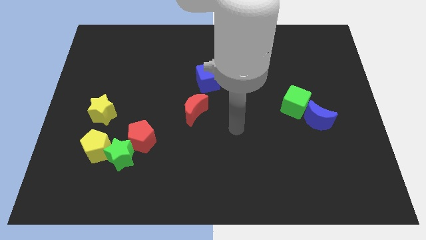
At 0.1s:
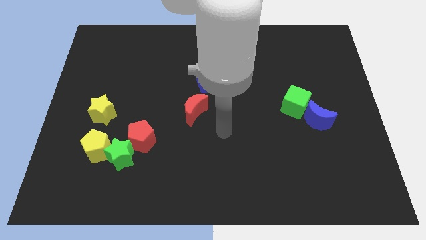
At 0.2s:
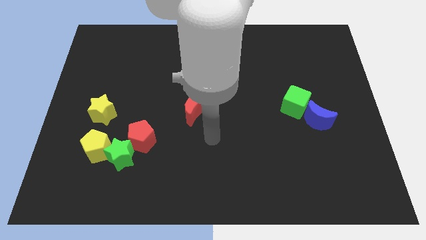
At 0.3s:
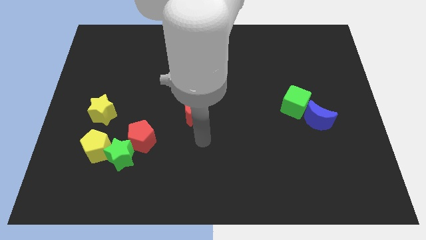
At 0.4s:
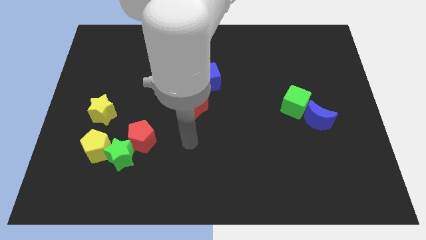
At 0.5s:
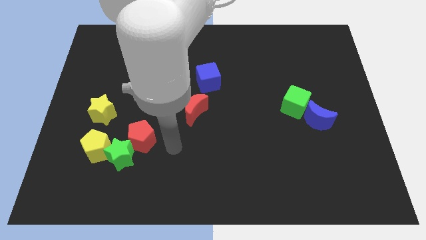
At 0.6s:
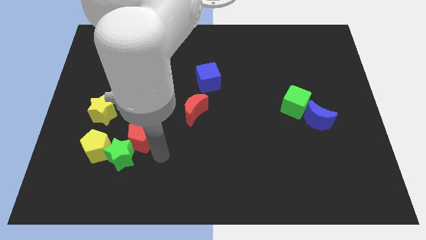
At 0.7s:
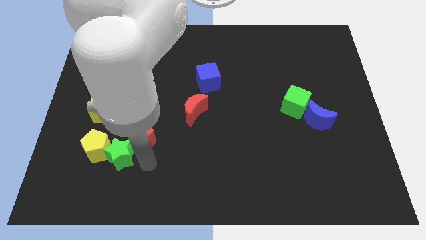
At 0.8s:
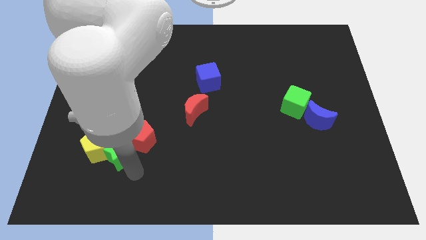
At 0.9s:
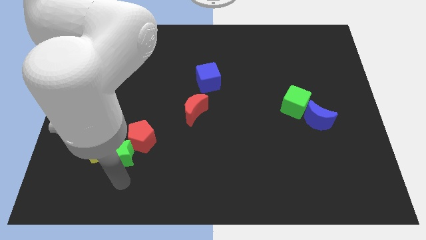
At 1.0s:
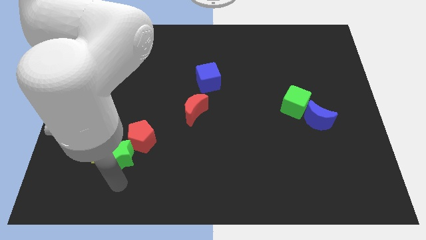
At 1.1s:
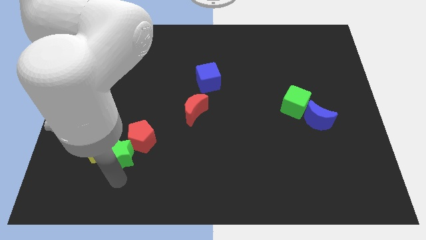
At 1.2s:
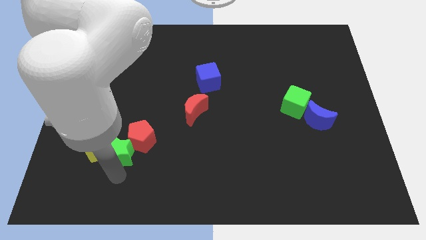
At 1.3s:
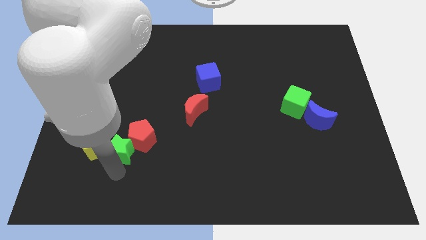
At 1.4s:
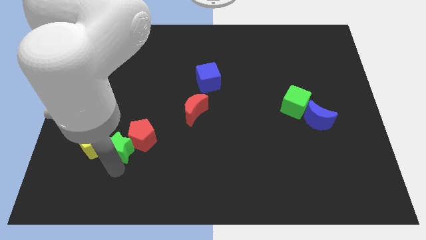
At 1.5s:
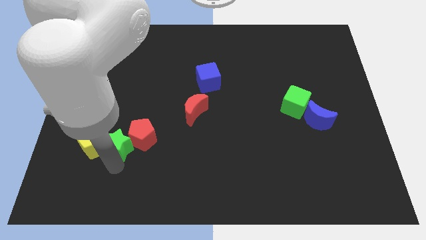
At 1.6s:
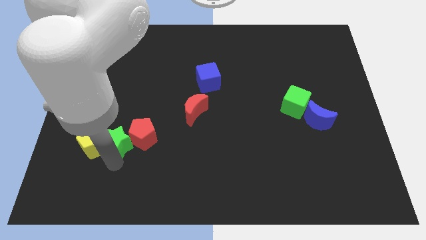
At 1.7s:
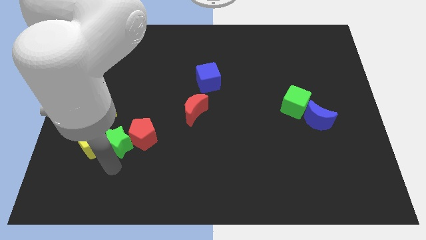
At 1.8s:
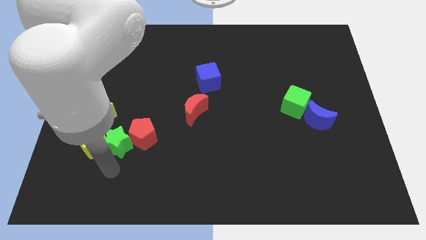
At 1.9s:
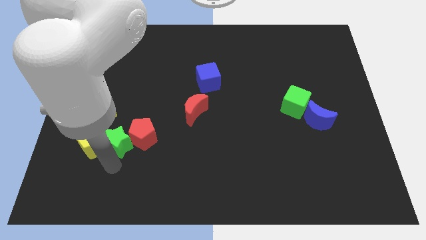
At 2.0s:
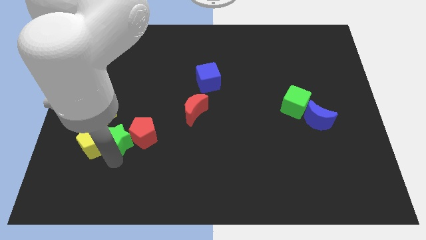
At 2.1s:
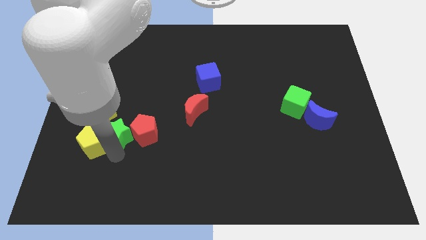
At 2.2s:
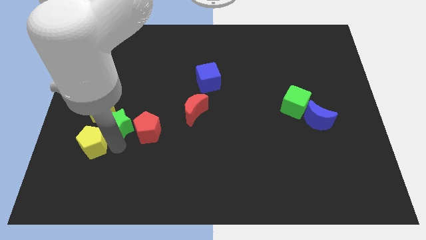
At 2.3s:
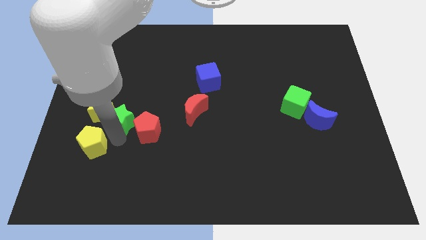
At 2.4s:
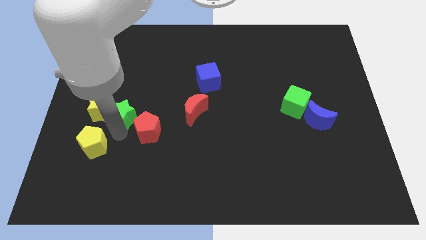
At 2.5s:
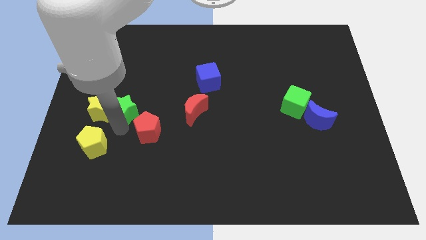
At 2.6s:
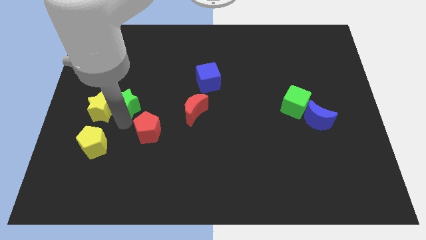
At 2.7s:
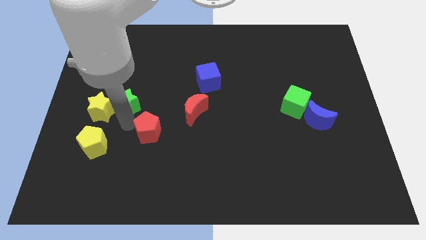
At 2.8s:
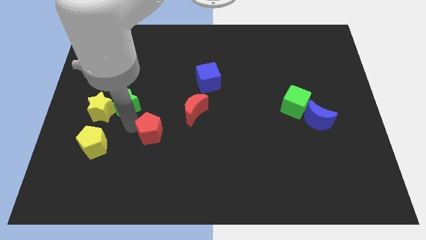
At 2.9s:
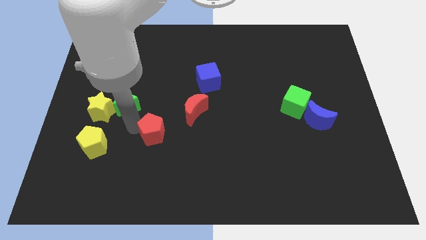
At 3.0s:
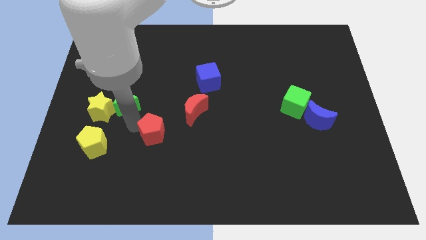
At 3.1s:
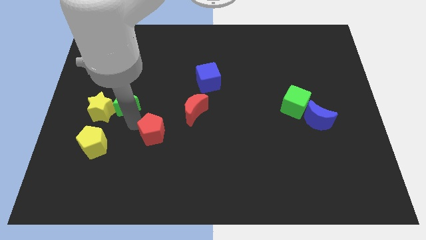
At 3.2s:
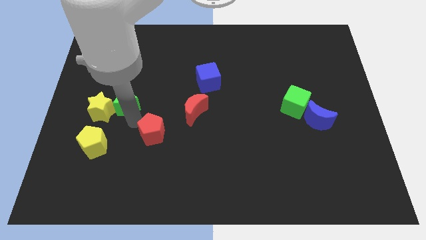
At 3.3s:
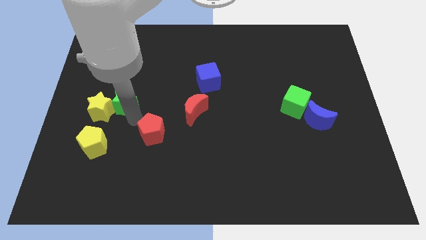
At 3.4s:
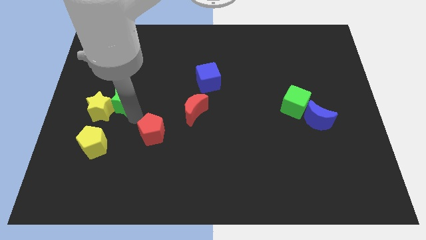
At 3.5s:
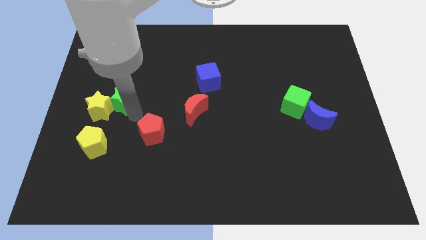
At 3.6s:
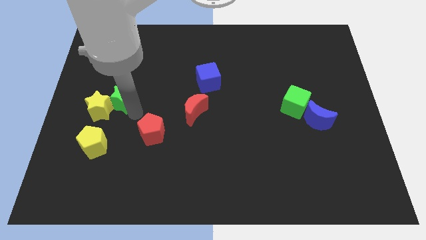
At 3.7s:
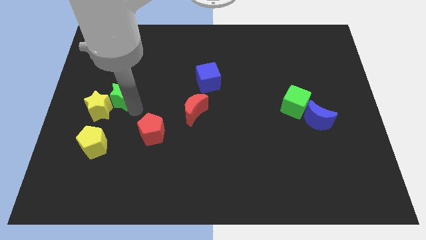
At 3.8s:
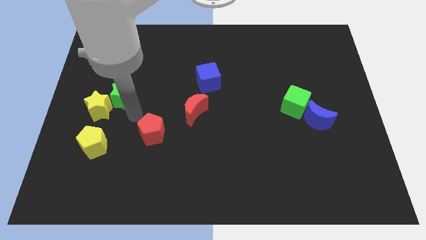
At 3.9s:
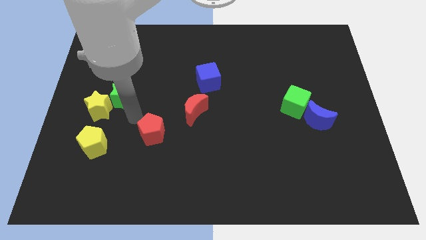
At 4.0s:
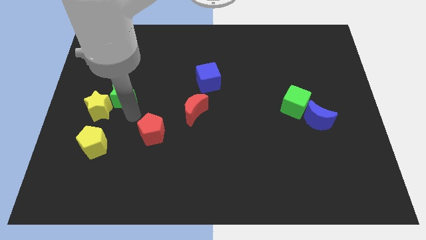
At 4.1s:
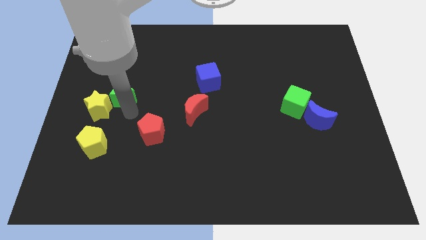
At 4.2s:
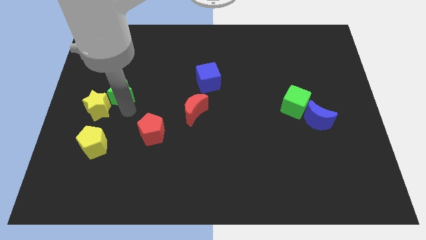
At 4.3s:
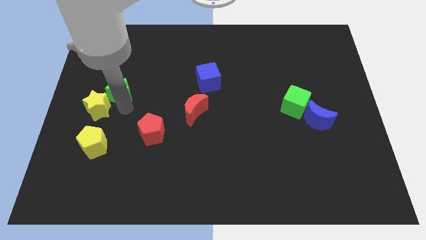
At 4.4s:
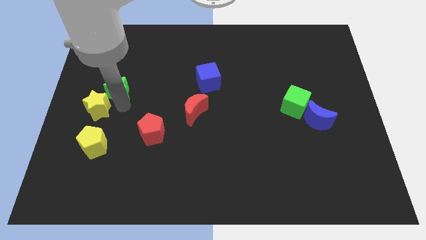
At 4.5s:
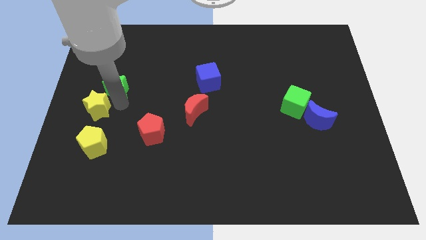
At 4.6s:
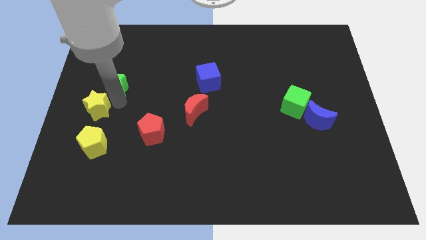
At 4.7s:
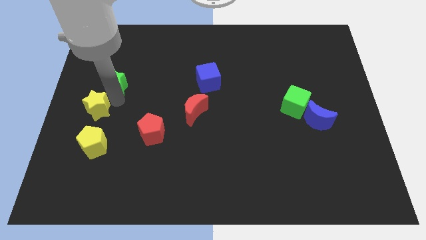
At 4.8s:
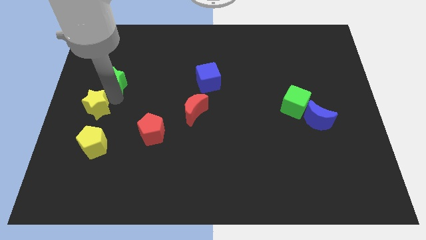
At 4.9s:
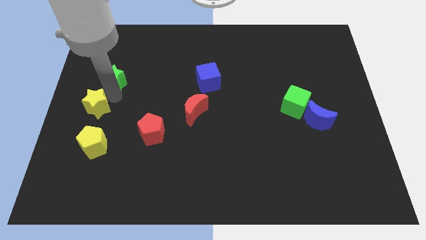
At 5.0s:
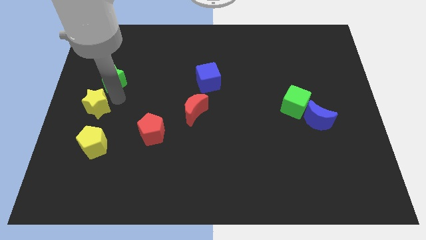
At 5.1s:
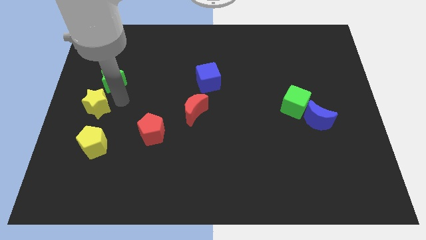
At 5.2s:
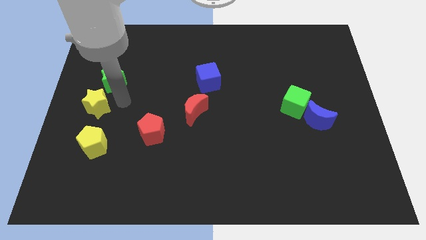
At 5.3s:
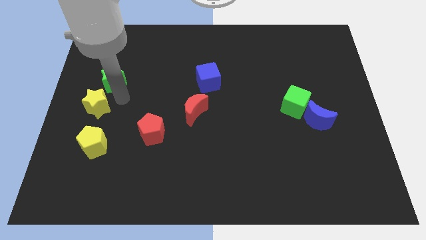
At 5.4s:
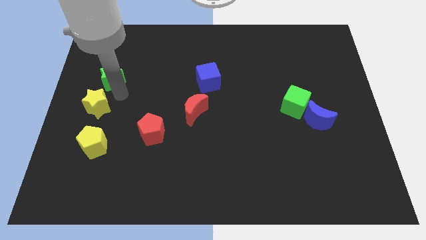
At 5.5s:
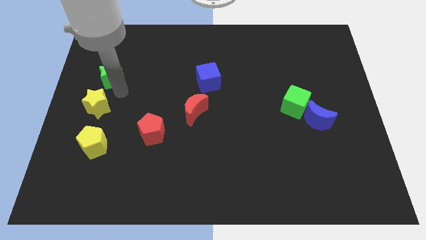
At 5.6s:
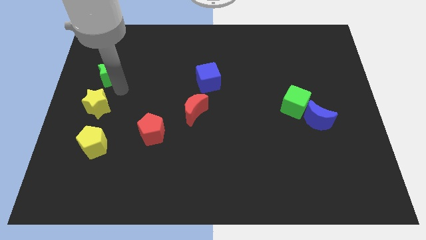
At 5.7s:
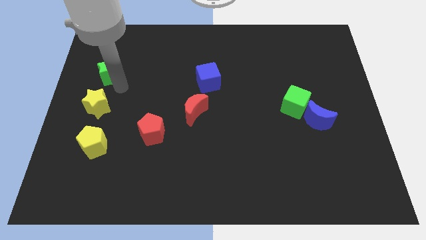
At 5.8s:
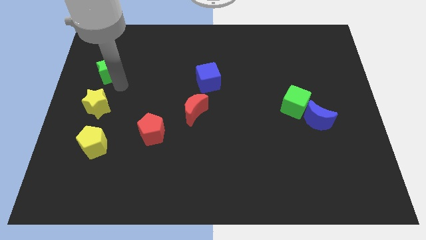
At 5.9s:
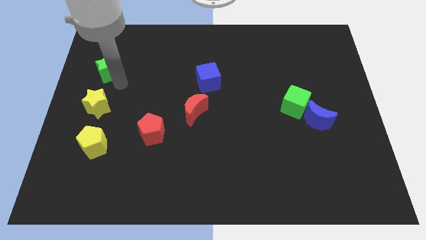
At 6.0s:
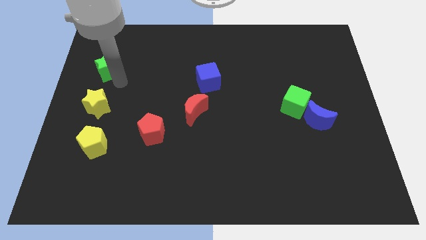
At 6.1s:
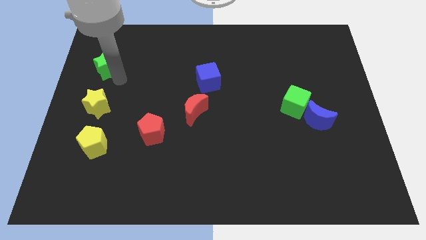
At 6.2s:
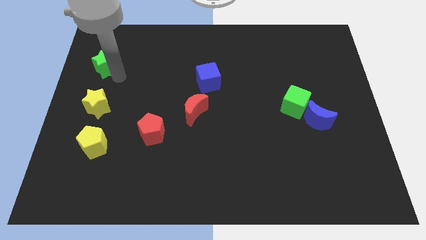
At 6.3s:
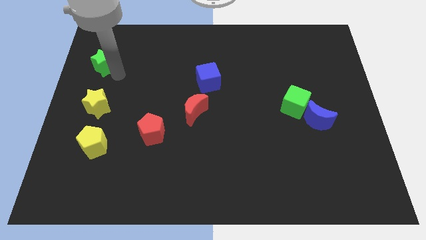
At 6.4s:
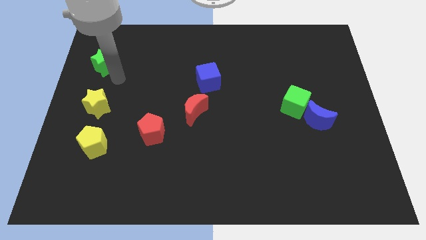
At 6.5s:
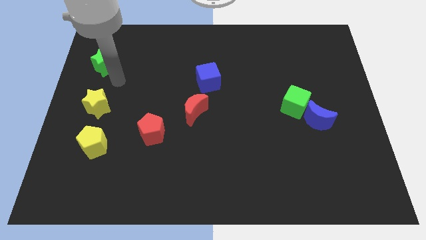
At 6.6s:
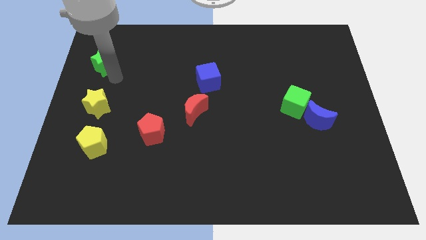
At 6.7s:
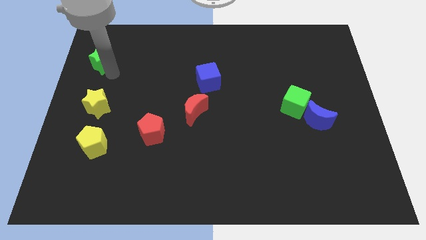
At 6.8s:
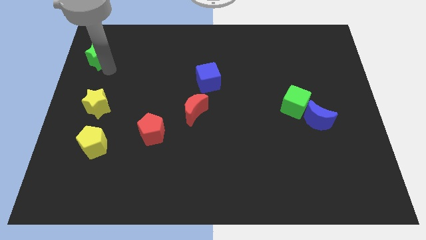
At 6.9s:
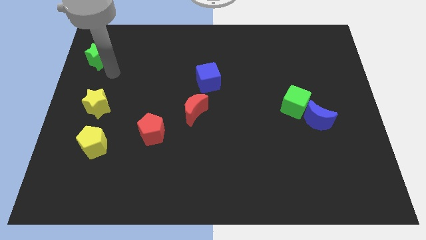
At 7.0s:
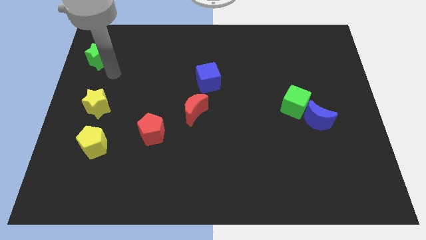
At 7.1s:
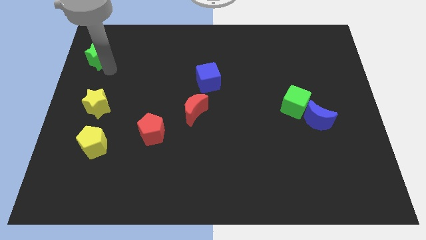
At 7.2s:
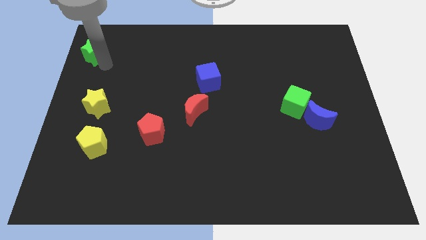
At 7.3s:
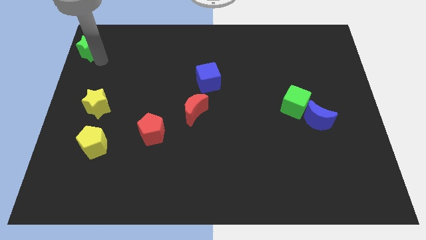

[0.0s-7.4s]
slide the green star to the top left corner
